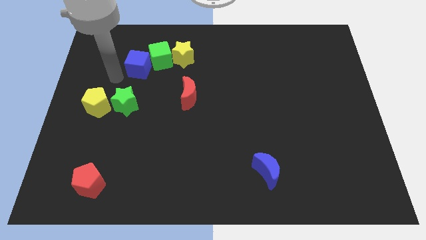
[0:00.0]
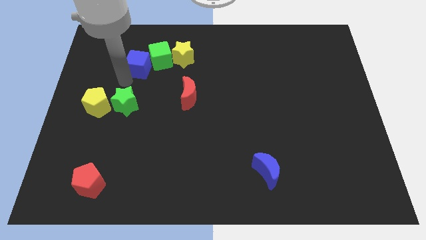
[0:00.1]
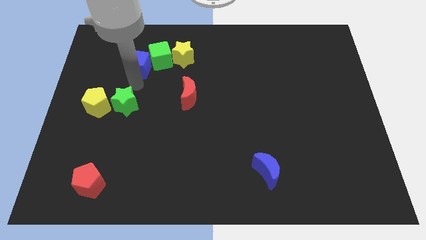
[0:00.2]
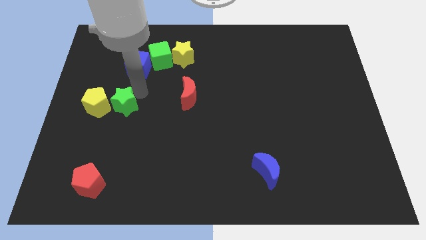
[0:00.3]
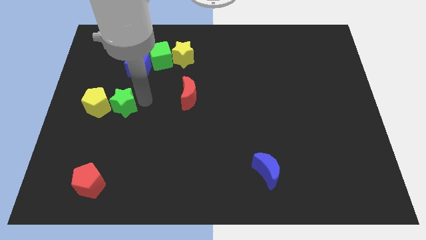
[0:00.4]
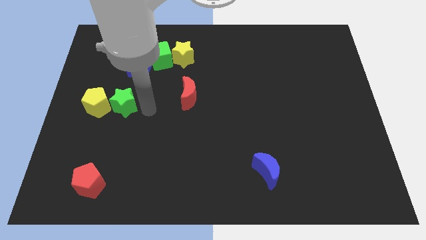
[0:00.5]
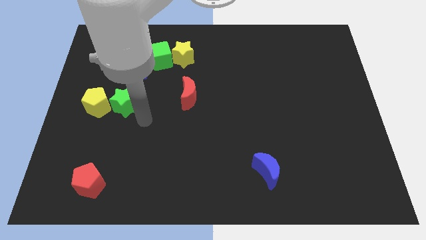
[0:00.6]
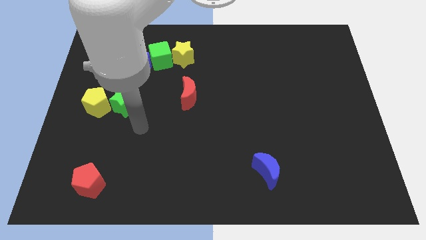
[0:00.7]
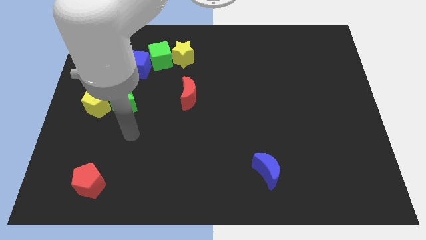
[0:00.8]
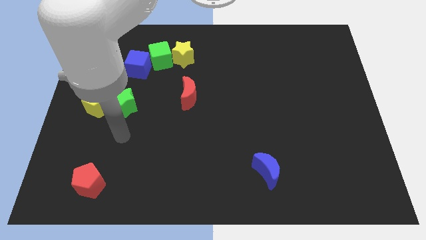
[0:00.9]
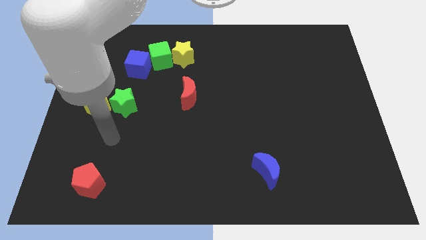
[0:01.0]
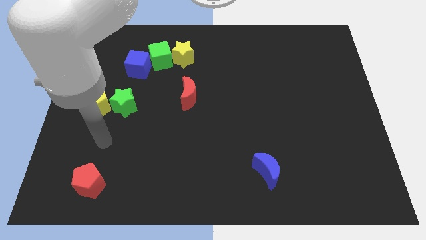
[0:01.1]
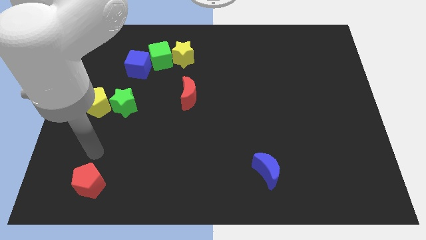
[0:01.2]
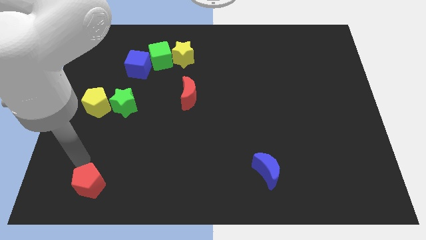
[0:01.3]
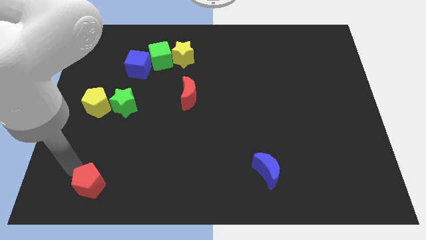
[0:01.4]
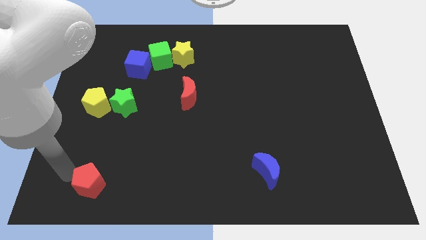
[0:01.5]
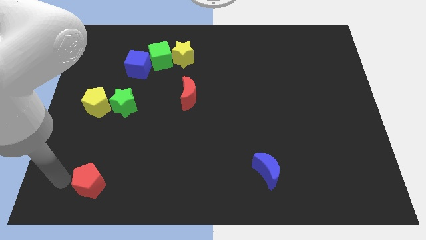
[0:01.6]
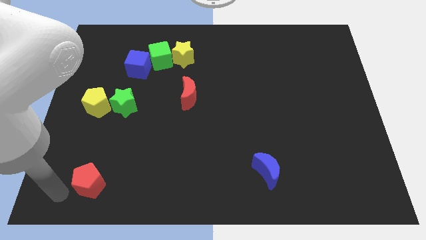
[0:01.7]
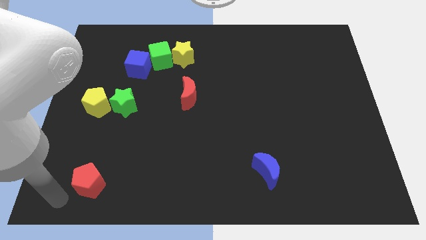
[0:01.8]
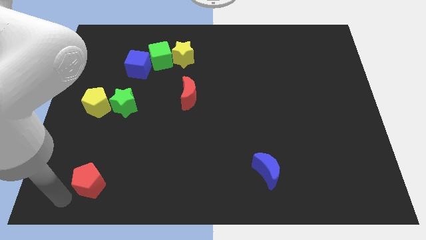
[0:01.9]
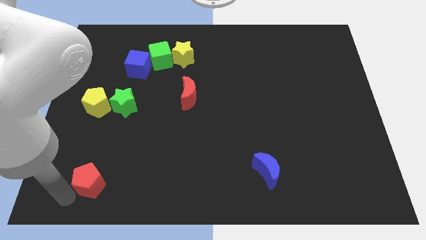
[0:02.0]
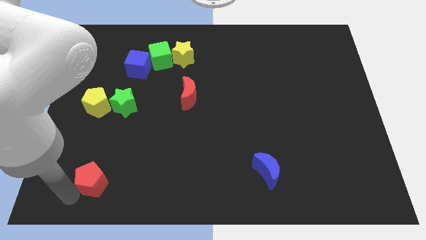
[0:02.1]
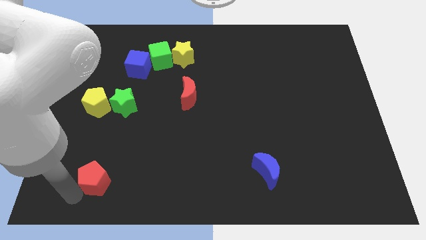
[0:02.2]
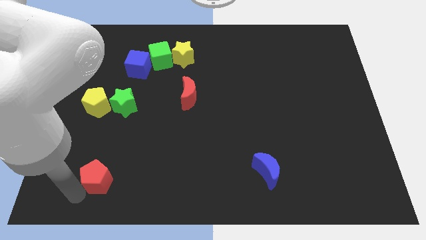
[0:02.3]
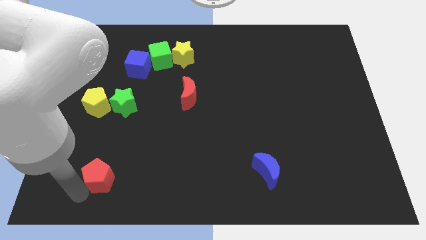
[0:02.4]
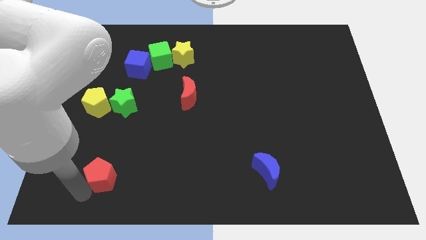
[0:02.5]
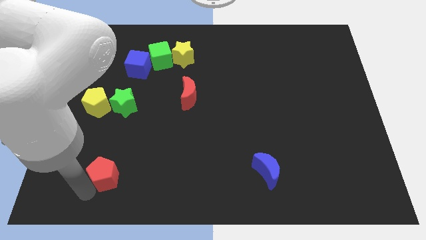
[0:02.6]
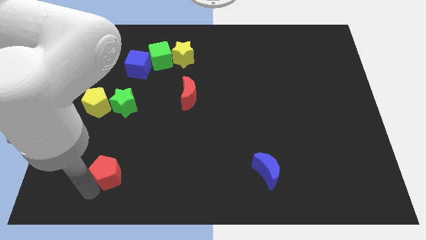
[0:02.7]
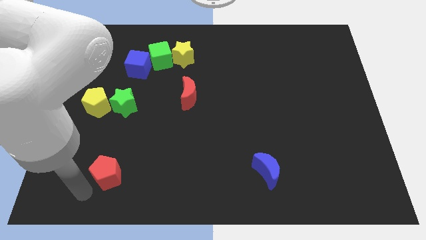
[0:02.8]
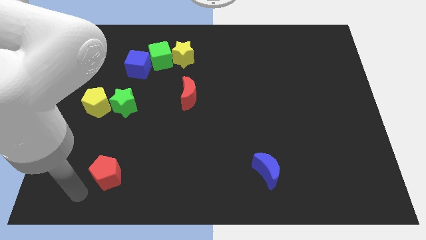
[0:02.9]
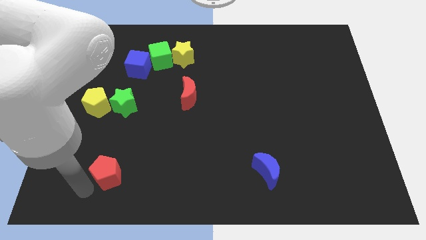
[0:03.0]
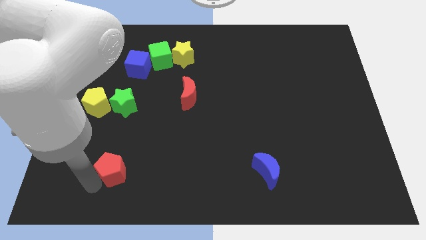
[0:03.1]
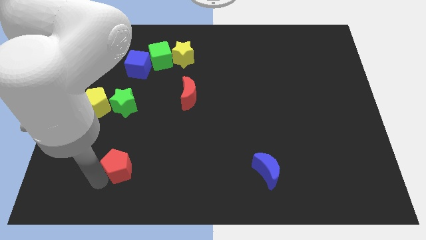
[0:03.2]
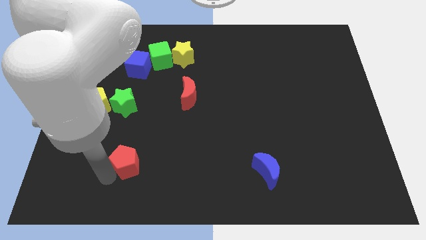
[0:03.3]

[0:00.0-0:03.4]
push the red pentagon diagonally upwards and to the right a little

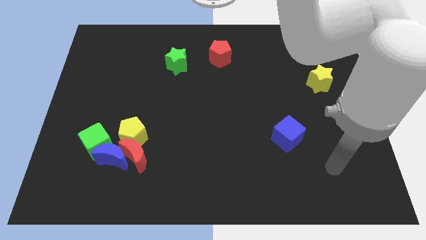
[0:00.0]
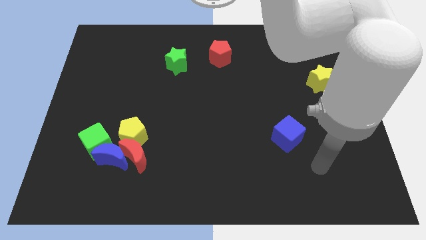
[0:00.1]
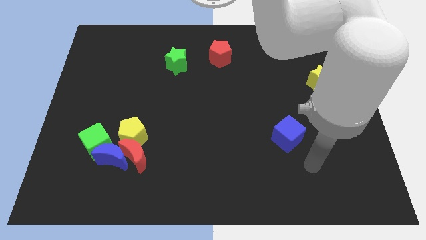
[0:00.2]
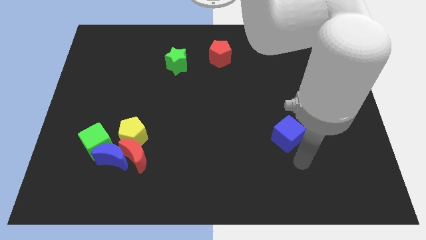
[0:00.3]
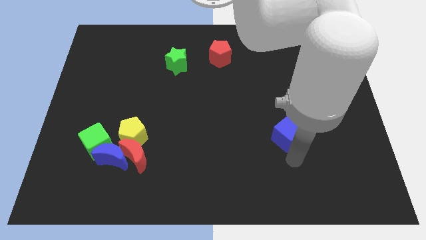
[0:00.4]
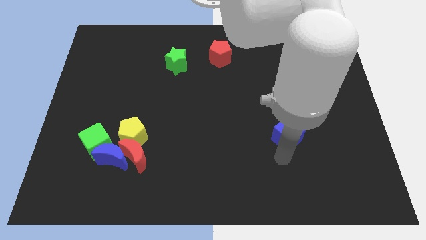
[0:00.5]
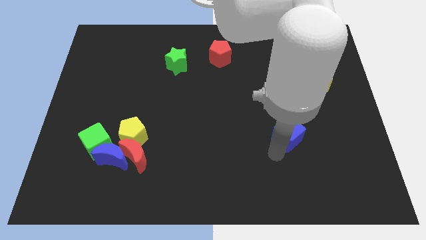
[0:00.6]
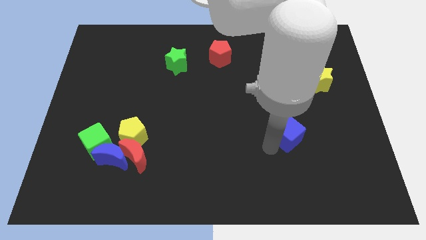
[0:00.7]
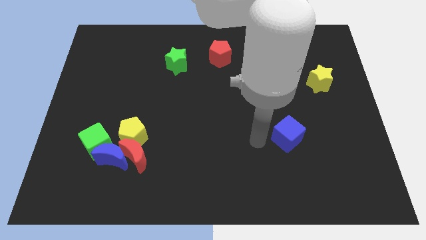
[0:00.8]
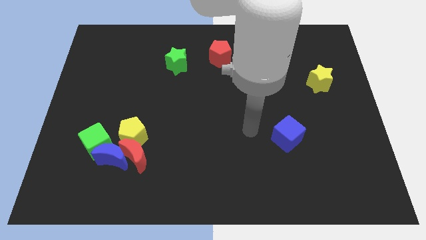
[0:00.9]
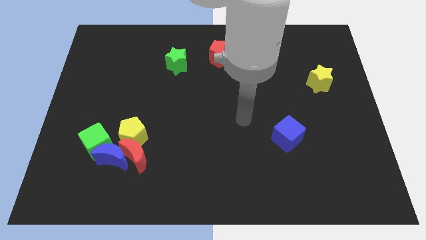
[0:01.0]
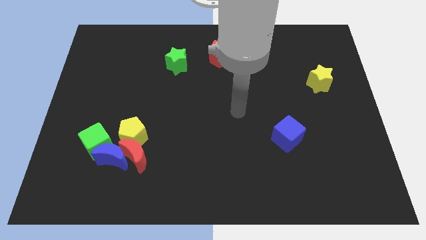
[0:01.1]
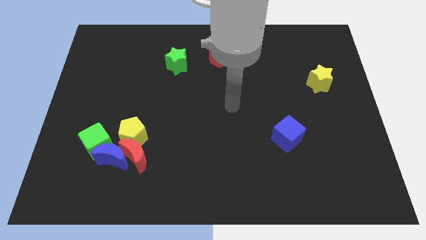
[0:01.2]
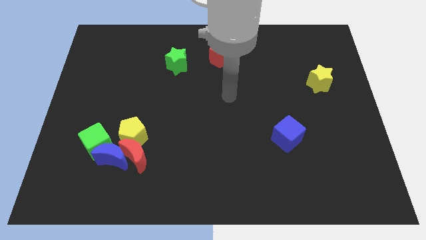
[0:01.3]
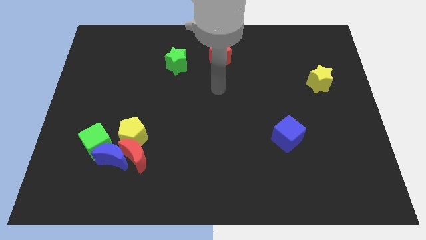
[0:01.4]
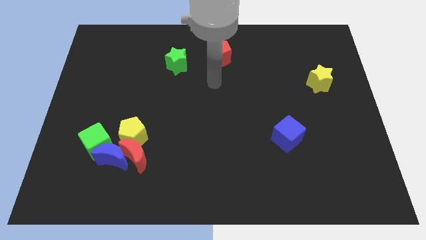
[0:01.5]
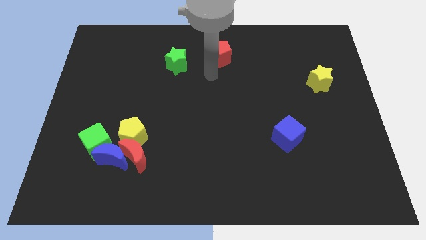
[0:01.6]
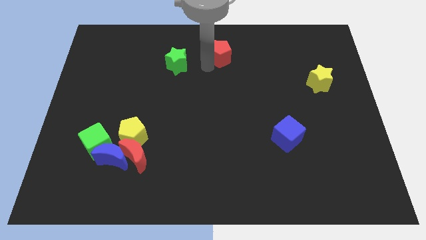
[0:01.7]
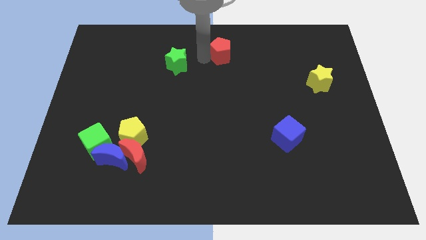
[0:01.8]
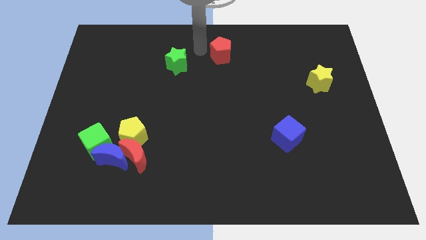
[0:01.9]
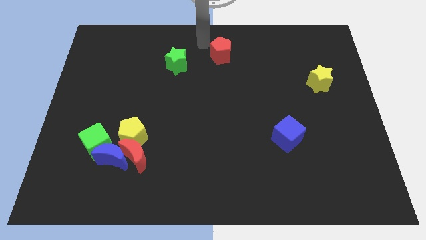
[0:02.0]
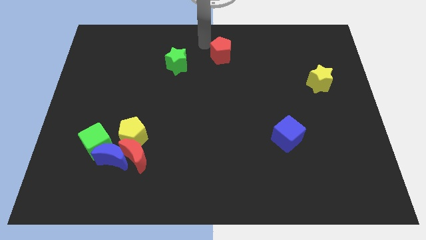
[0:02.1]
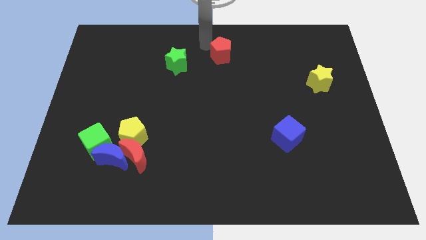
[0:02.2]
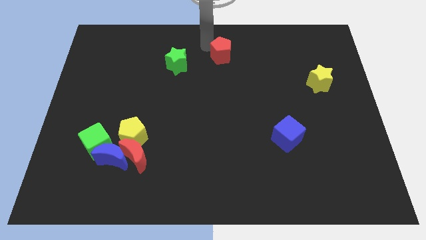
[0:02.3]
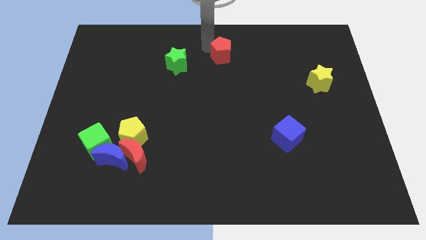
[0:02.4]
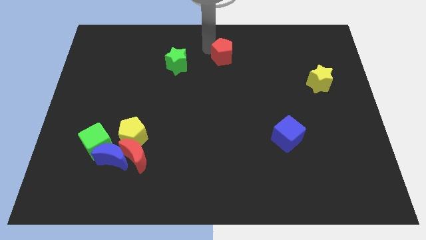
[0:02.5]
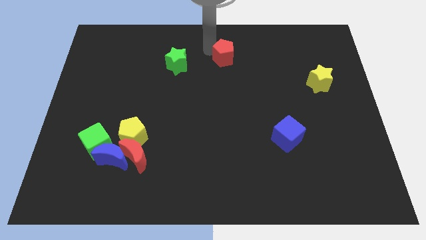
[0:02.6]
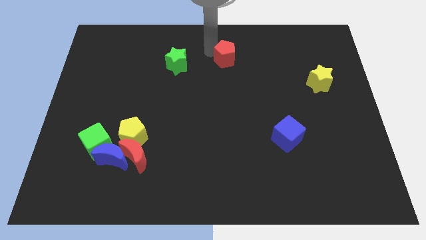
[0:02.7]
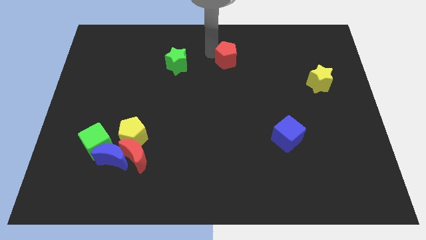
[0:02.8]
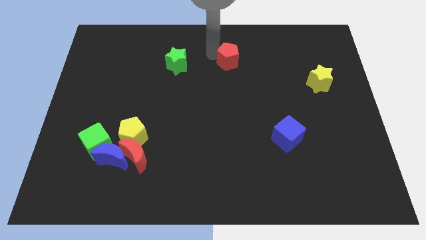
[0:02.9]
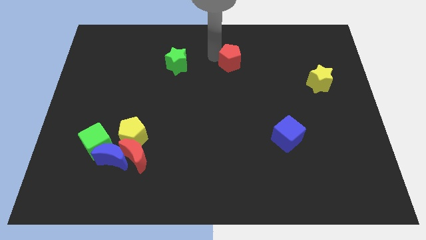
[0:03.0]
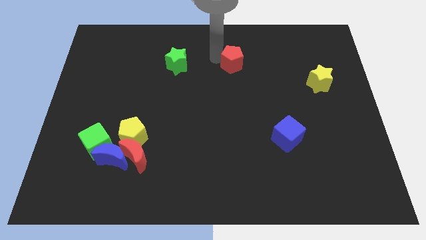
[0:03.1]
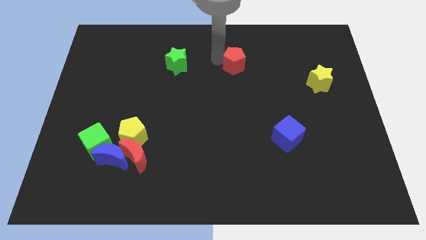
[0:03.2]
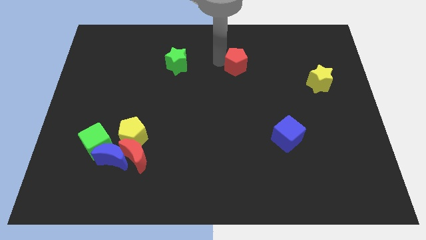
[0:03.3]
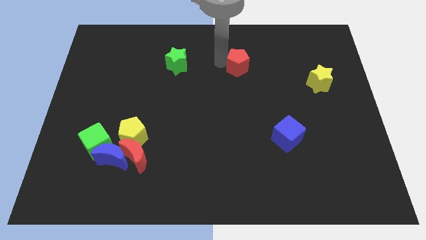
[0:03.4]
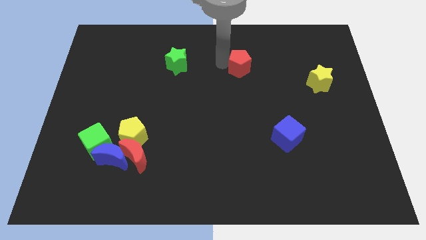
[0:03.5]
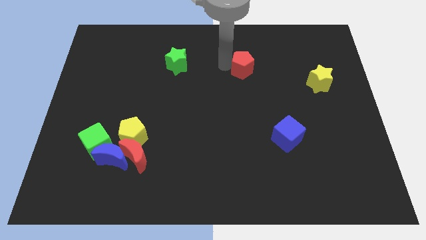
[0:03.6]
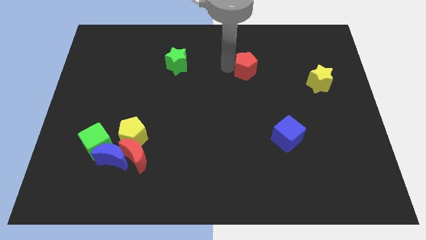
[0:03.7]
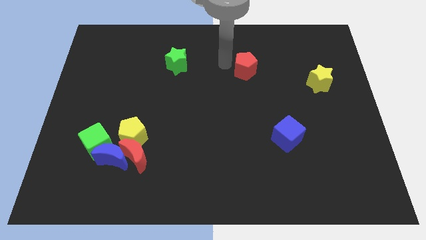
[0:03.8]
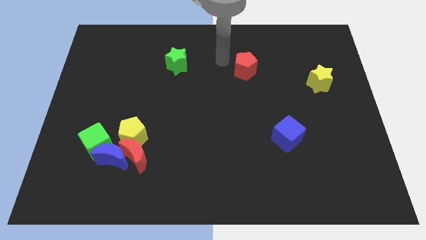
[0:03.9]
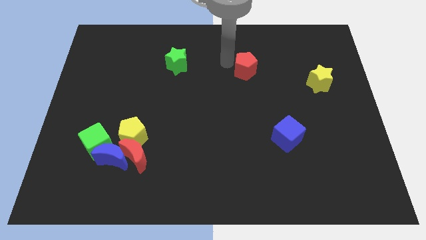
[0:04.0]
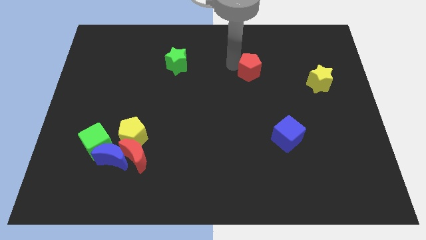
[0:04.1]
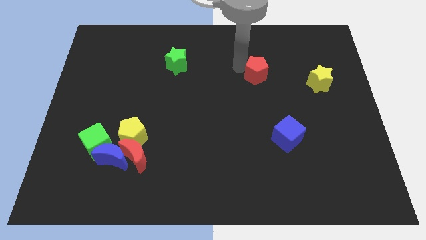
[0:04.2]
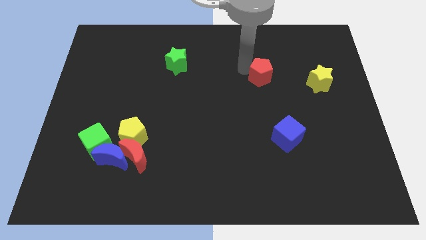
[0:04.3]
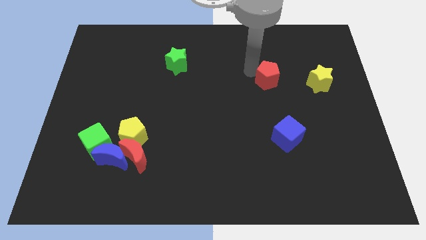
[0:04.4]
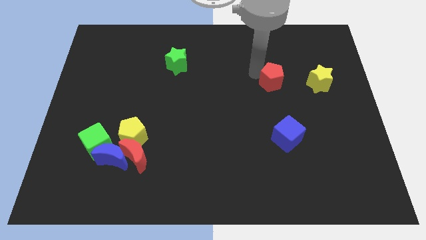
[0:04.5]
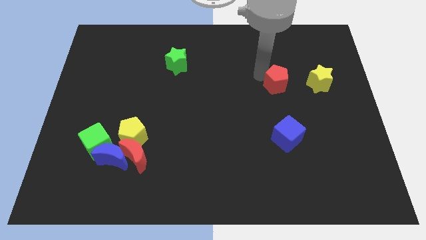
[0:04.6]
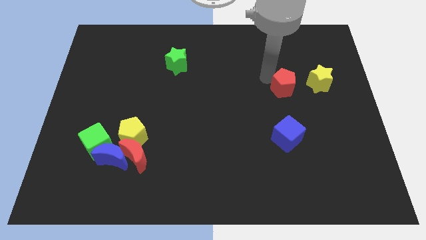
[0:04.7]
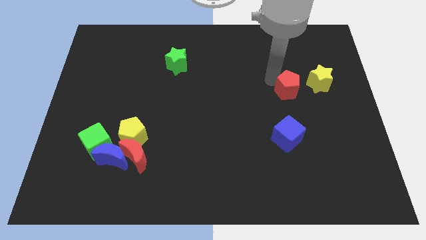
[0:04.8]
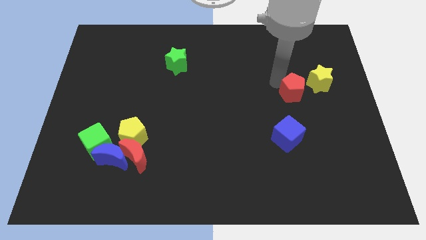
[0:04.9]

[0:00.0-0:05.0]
push the red pentagon diagonally down and right
